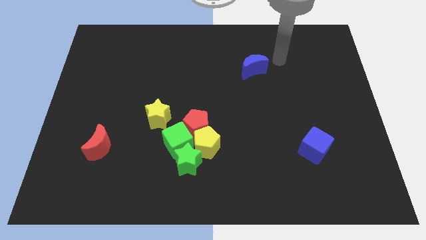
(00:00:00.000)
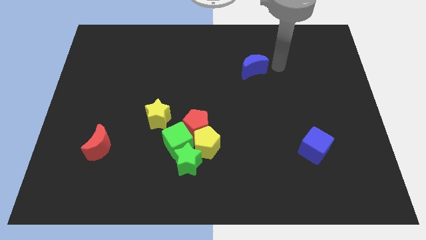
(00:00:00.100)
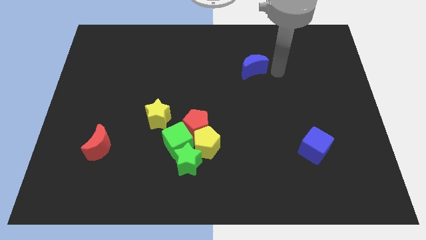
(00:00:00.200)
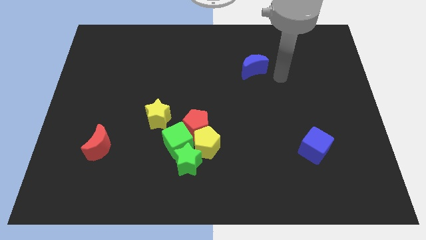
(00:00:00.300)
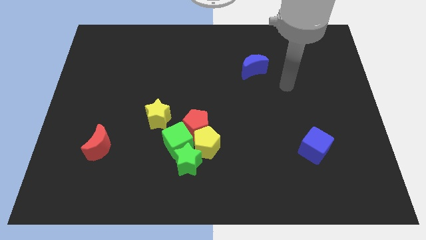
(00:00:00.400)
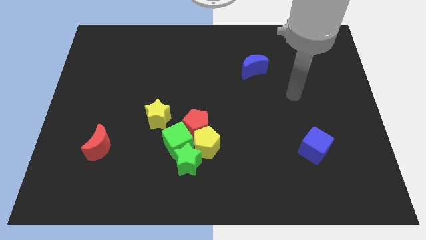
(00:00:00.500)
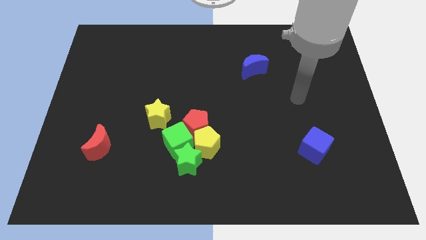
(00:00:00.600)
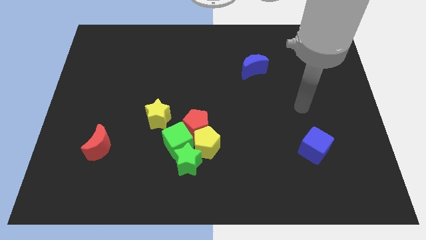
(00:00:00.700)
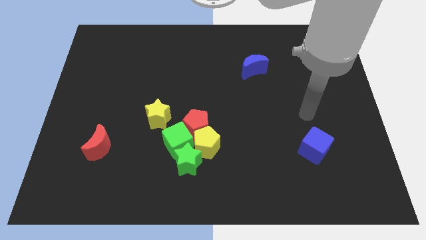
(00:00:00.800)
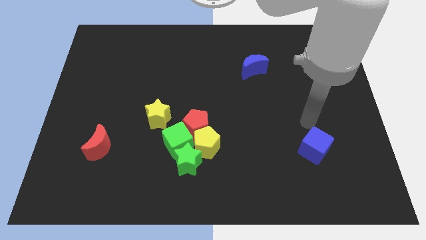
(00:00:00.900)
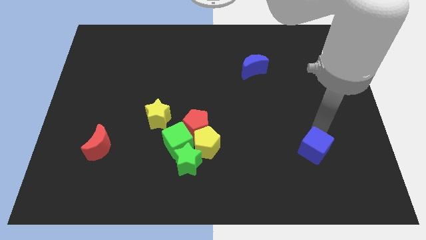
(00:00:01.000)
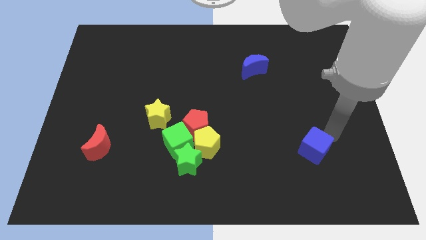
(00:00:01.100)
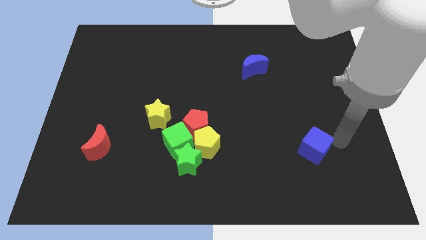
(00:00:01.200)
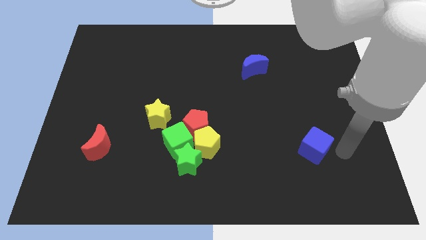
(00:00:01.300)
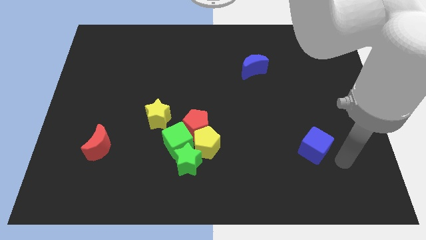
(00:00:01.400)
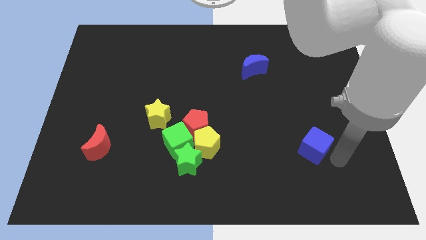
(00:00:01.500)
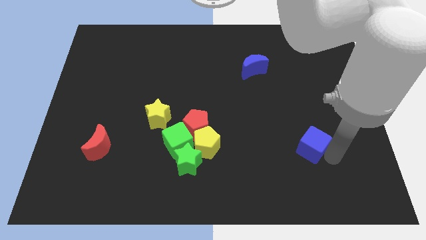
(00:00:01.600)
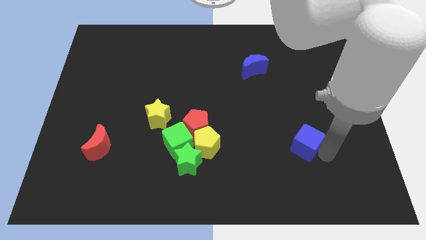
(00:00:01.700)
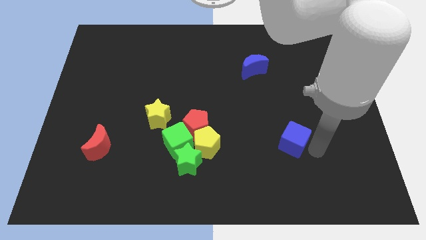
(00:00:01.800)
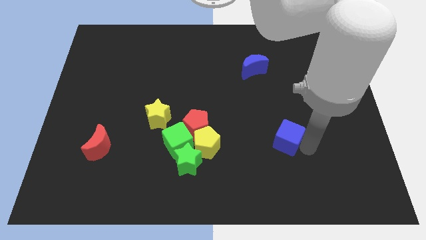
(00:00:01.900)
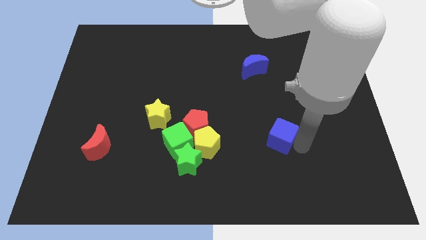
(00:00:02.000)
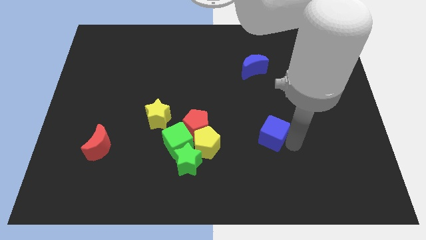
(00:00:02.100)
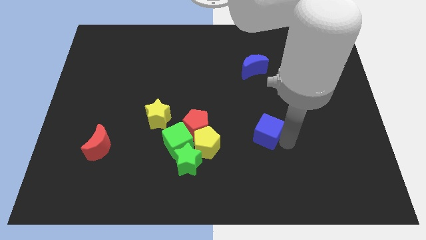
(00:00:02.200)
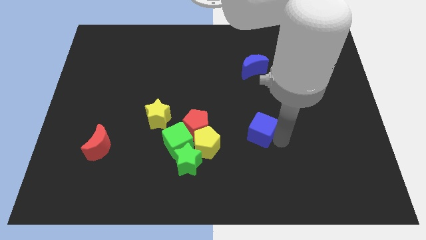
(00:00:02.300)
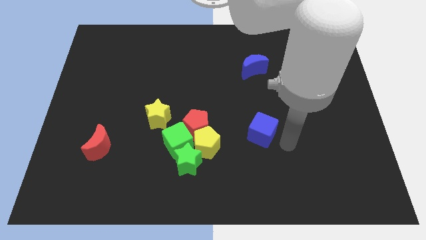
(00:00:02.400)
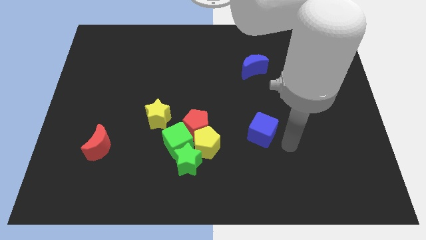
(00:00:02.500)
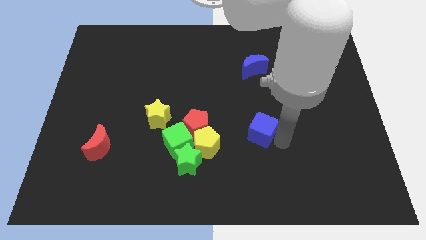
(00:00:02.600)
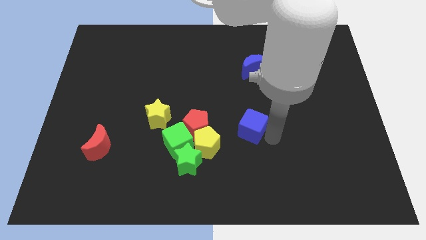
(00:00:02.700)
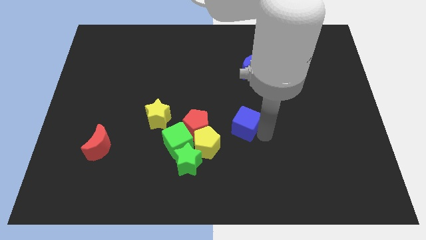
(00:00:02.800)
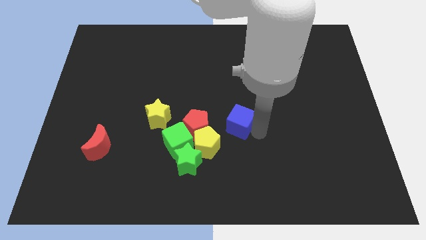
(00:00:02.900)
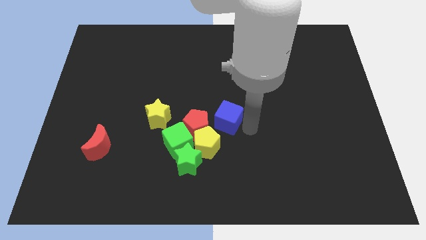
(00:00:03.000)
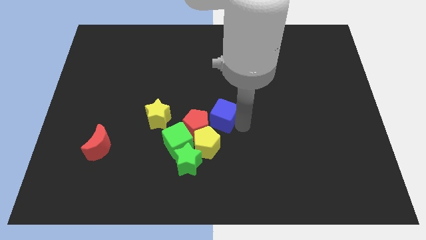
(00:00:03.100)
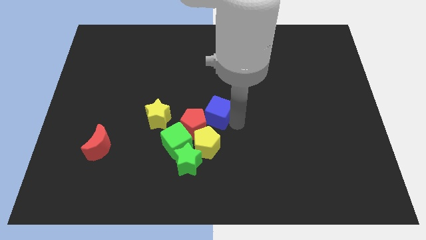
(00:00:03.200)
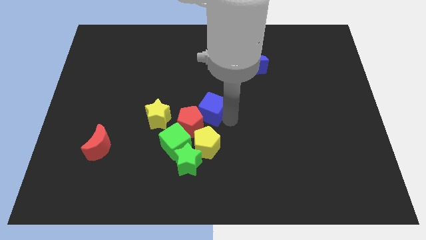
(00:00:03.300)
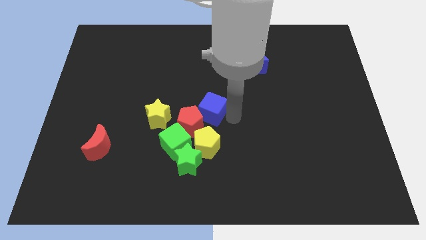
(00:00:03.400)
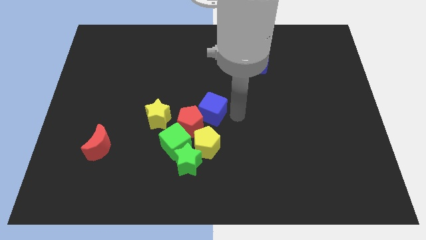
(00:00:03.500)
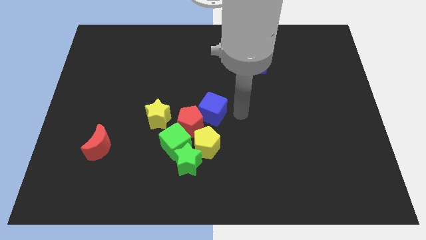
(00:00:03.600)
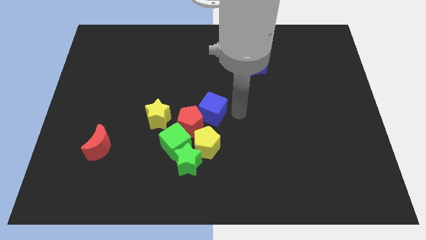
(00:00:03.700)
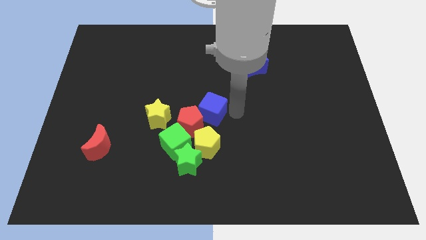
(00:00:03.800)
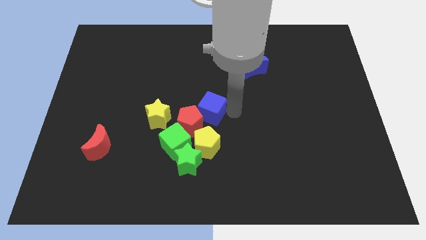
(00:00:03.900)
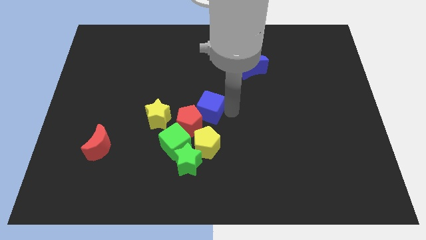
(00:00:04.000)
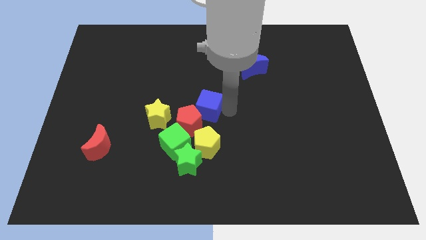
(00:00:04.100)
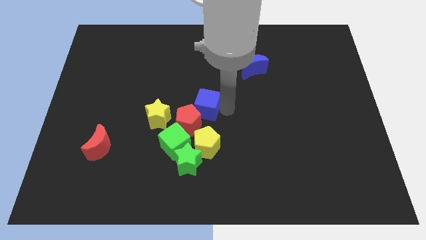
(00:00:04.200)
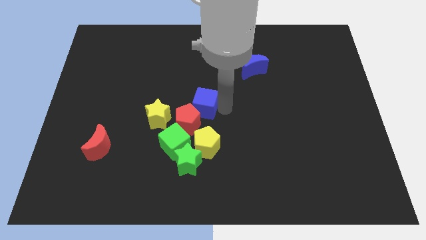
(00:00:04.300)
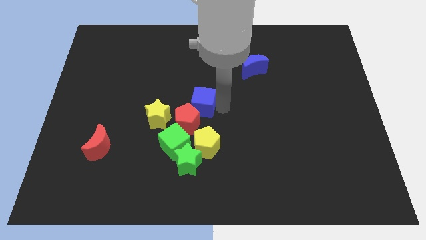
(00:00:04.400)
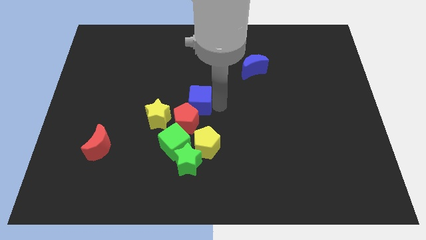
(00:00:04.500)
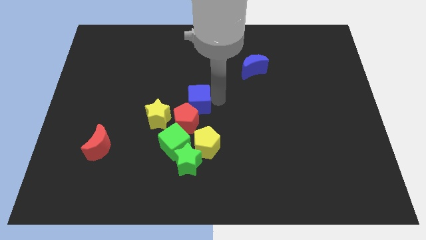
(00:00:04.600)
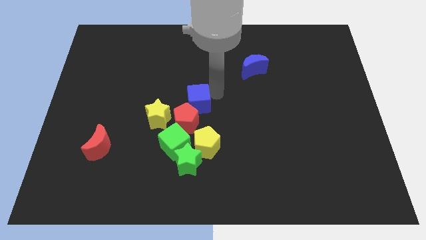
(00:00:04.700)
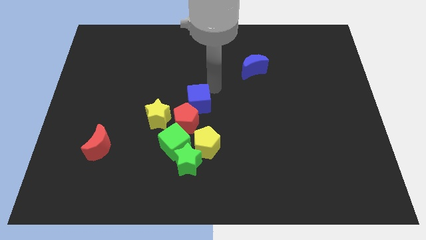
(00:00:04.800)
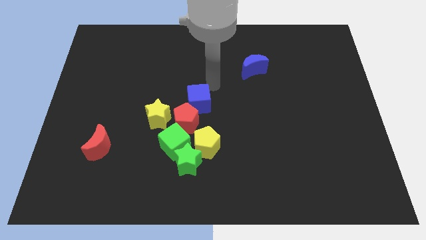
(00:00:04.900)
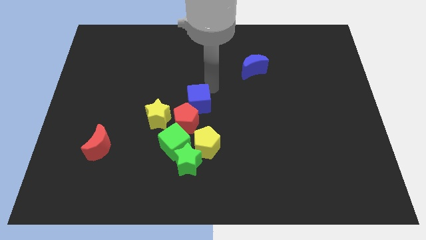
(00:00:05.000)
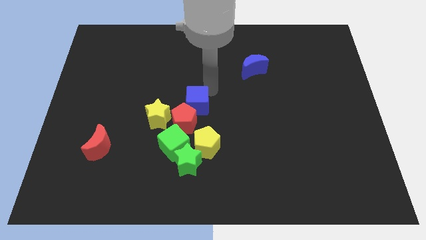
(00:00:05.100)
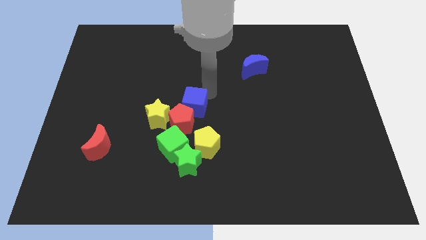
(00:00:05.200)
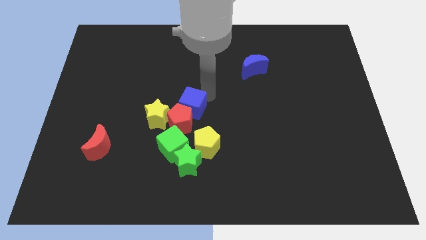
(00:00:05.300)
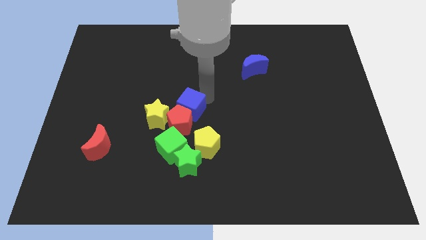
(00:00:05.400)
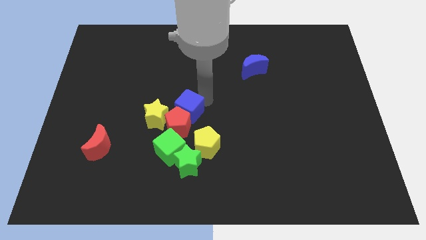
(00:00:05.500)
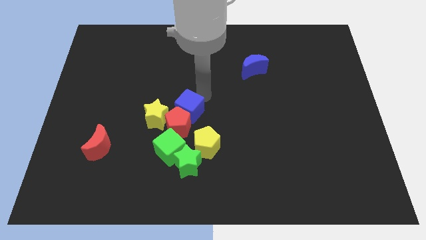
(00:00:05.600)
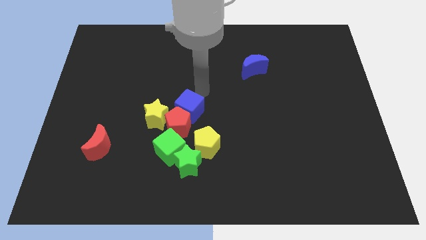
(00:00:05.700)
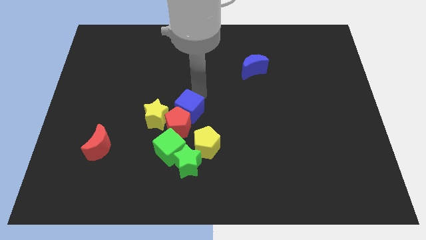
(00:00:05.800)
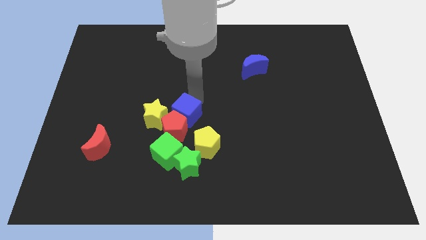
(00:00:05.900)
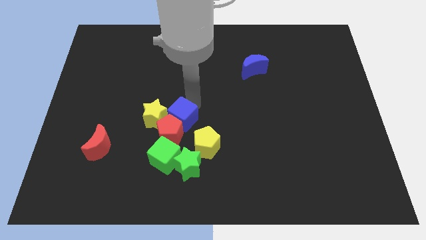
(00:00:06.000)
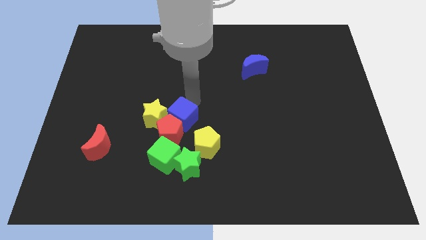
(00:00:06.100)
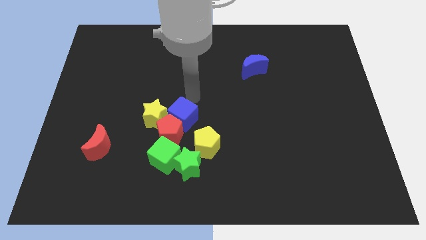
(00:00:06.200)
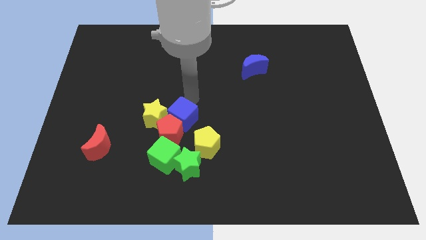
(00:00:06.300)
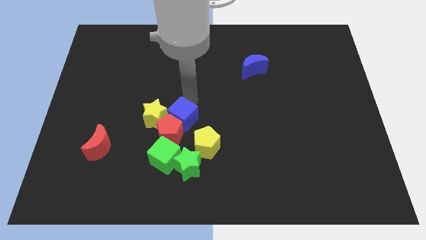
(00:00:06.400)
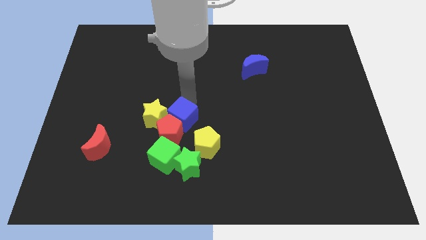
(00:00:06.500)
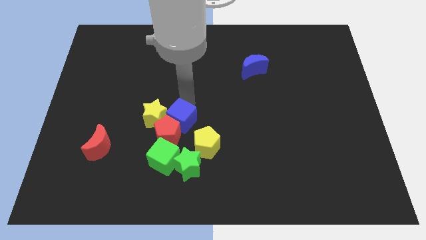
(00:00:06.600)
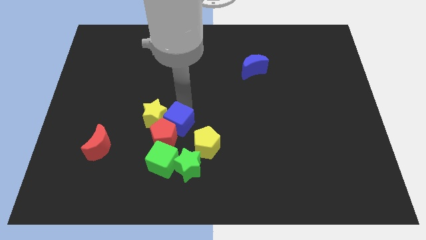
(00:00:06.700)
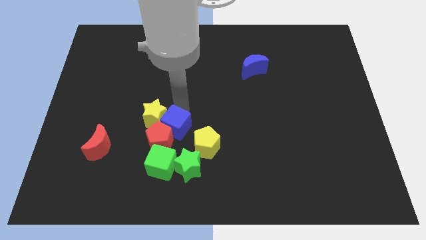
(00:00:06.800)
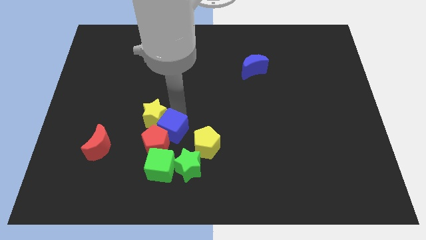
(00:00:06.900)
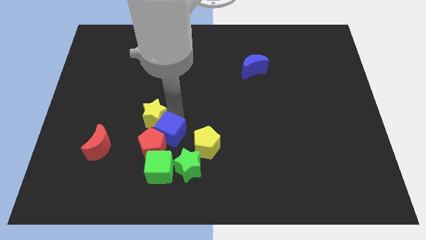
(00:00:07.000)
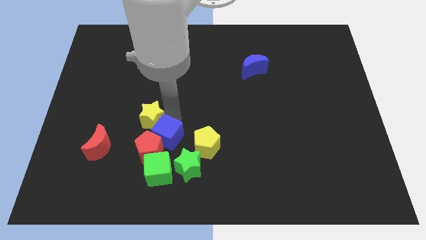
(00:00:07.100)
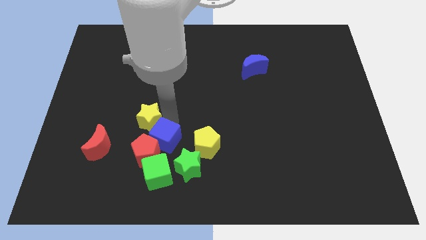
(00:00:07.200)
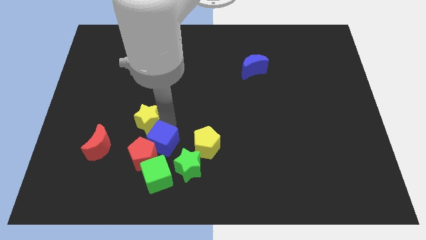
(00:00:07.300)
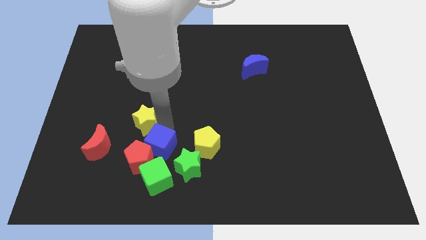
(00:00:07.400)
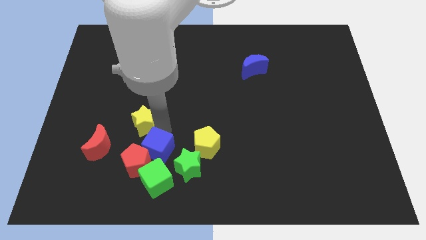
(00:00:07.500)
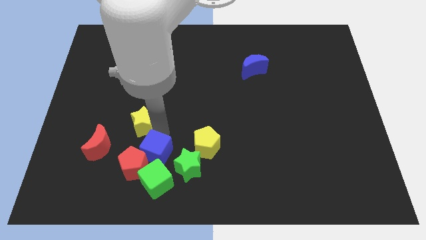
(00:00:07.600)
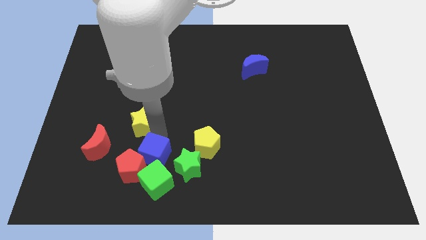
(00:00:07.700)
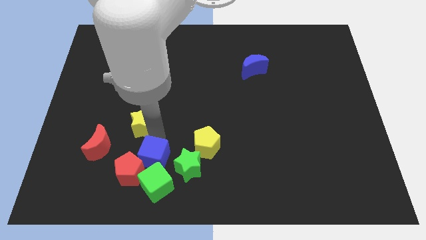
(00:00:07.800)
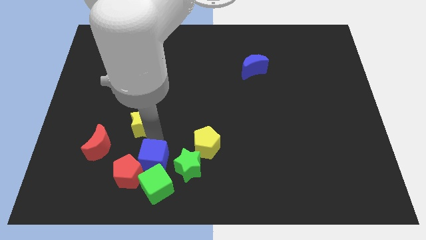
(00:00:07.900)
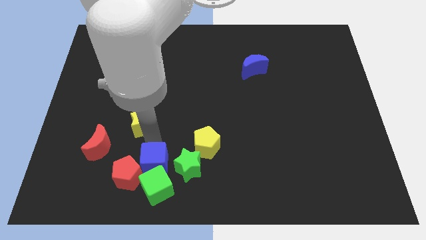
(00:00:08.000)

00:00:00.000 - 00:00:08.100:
push the blue cube to the green cube
